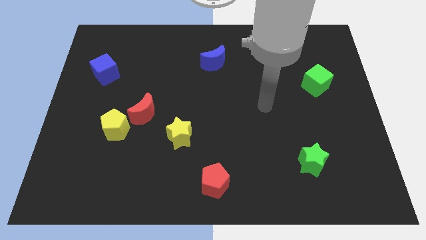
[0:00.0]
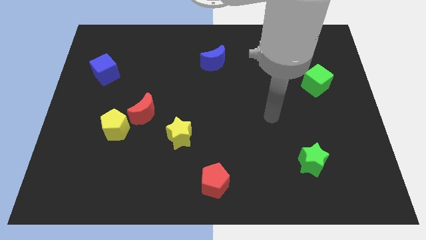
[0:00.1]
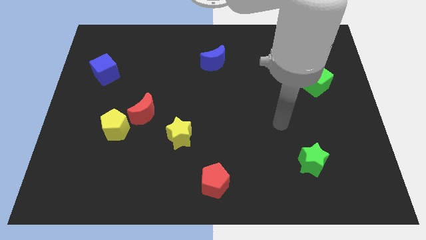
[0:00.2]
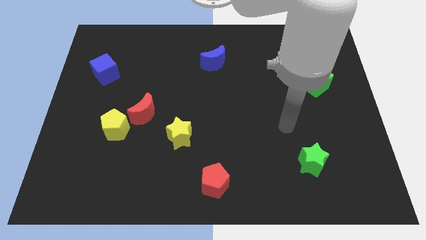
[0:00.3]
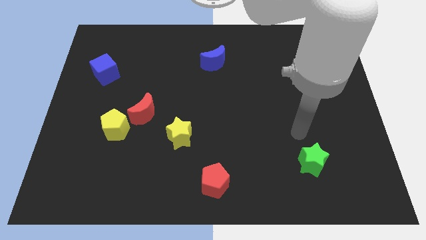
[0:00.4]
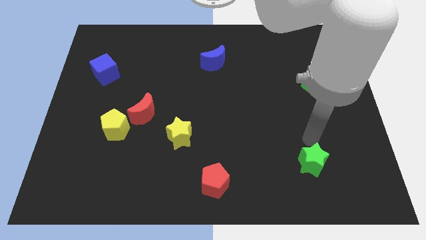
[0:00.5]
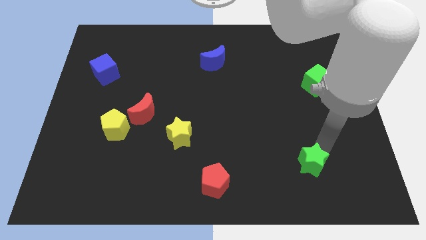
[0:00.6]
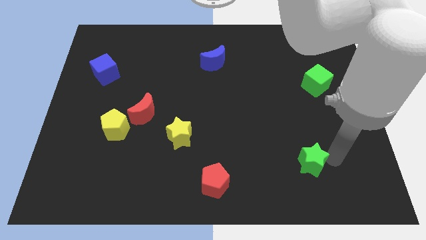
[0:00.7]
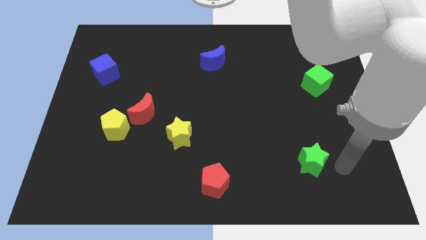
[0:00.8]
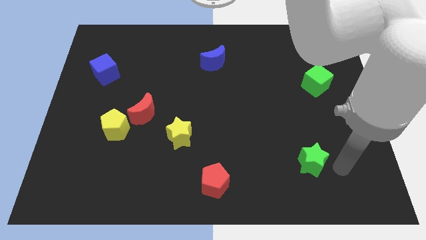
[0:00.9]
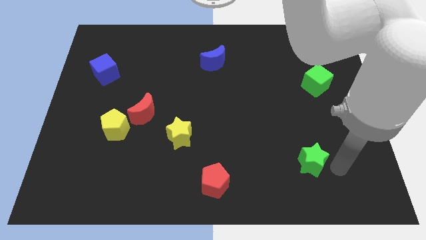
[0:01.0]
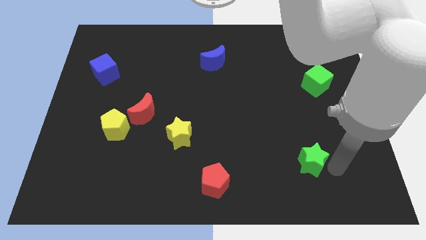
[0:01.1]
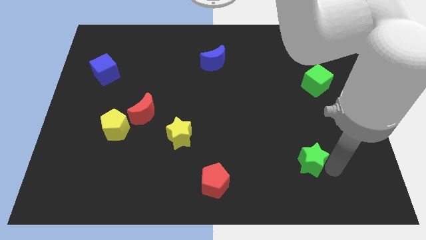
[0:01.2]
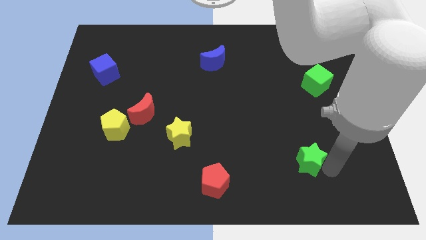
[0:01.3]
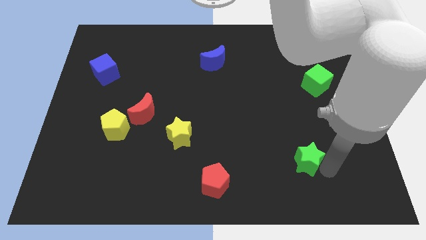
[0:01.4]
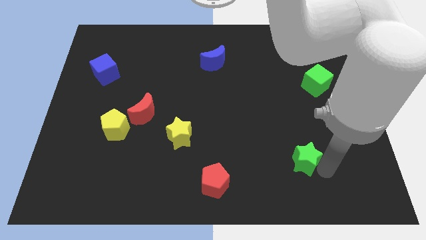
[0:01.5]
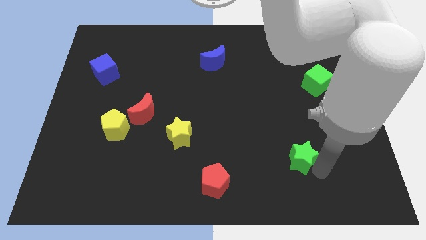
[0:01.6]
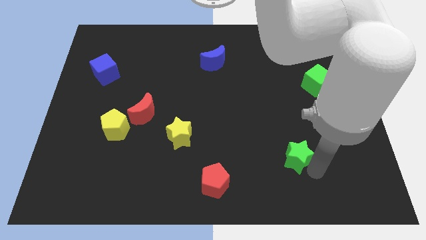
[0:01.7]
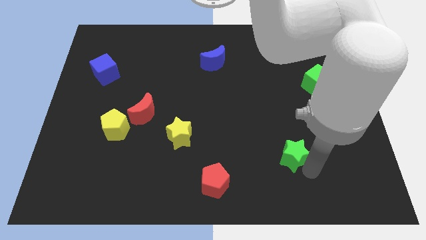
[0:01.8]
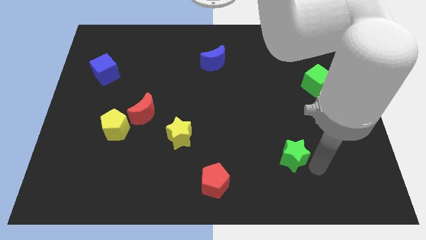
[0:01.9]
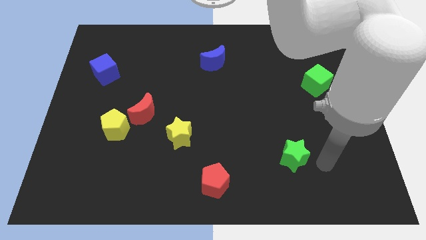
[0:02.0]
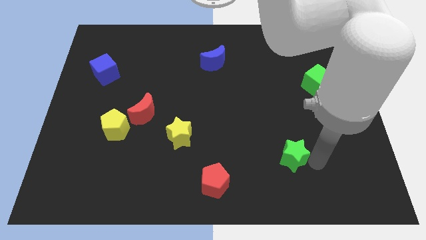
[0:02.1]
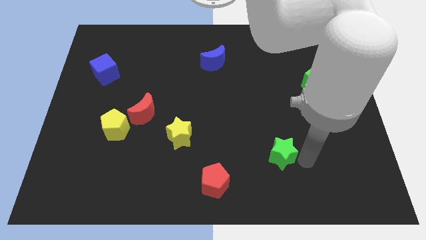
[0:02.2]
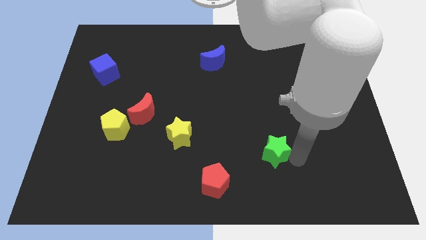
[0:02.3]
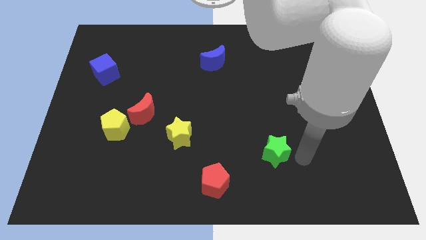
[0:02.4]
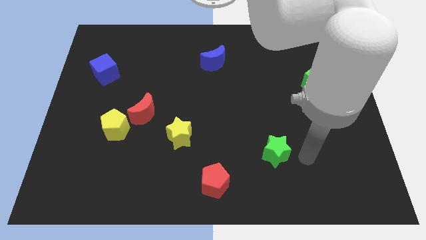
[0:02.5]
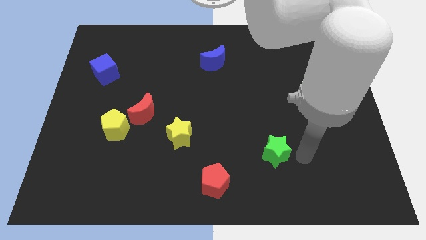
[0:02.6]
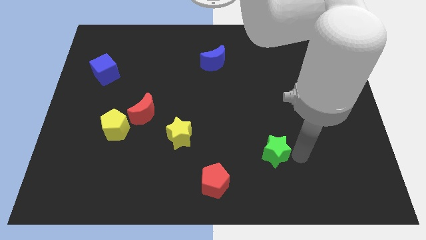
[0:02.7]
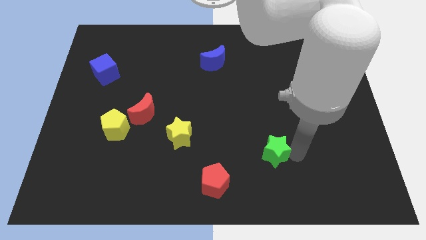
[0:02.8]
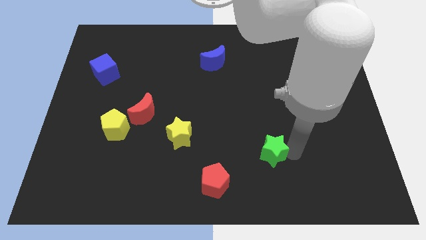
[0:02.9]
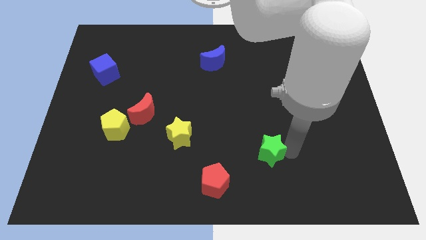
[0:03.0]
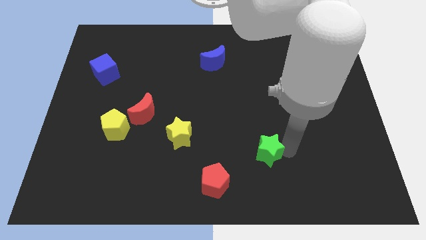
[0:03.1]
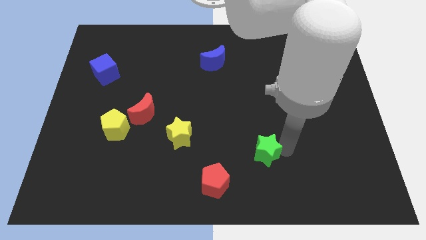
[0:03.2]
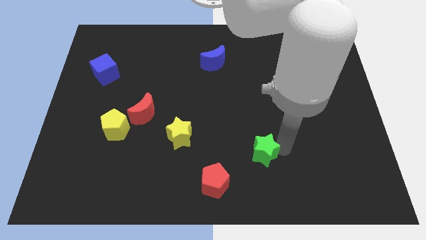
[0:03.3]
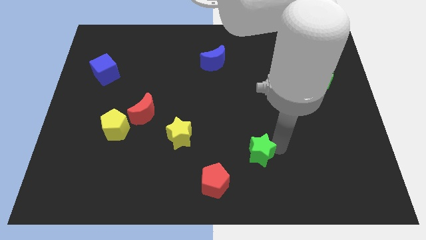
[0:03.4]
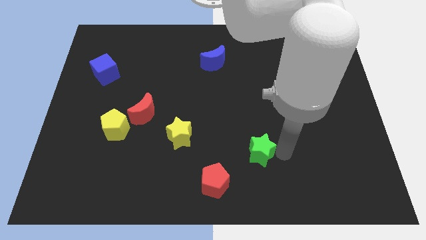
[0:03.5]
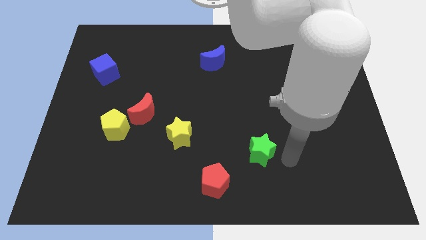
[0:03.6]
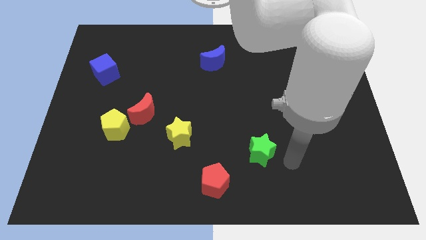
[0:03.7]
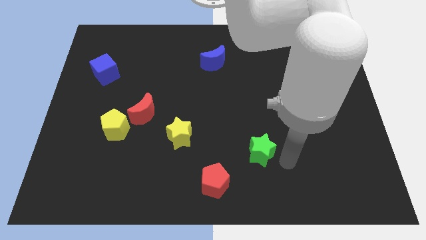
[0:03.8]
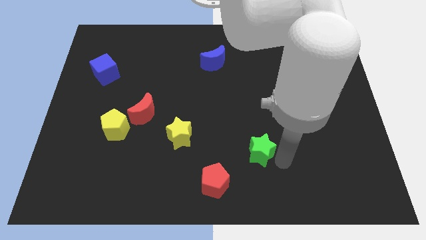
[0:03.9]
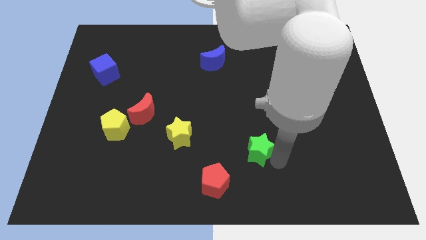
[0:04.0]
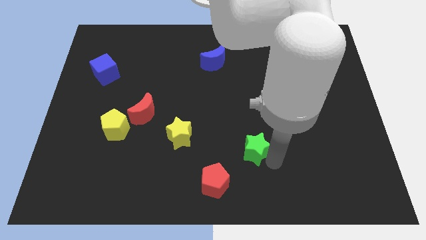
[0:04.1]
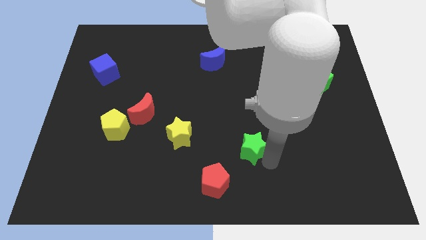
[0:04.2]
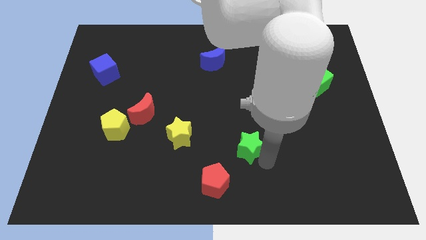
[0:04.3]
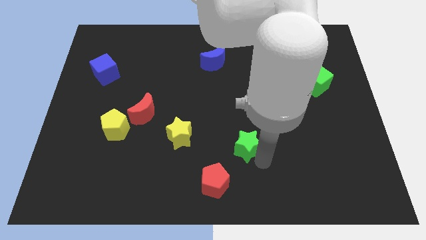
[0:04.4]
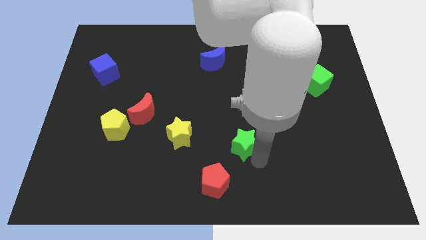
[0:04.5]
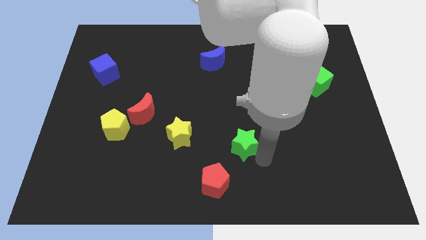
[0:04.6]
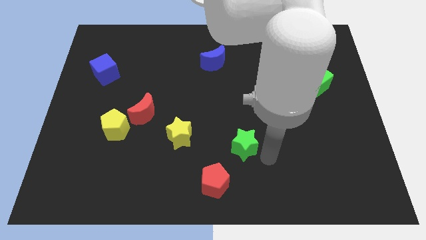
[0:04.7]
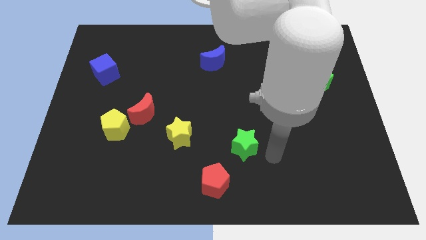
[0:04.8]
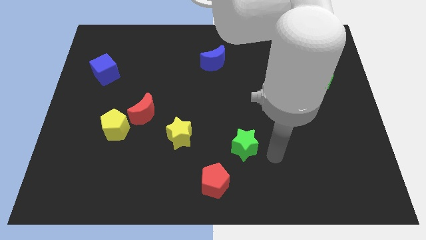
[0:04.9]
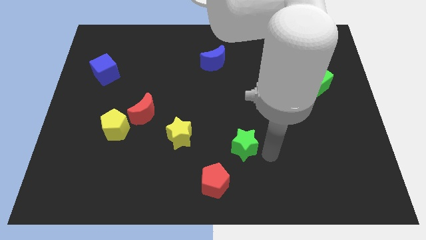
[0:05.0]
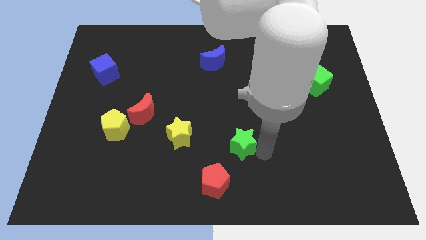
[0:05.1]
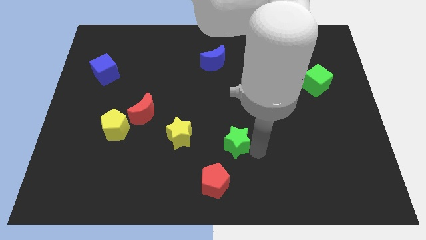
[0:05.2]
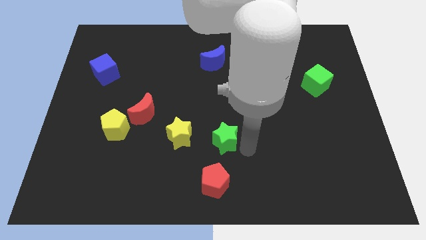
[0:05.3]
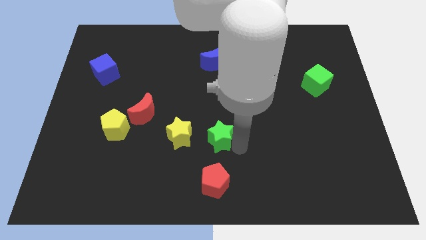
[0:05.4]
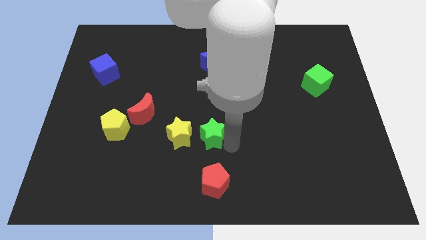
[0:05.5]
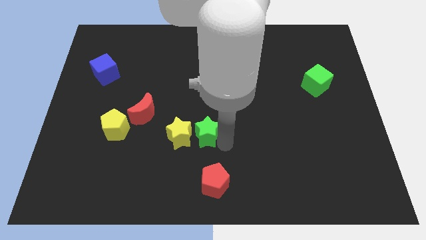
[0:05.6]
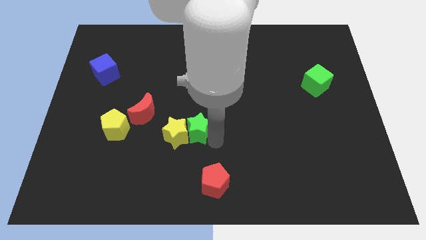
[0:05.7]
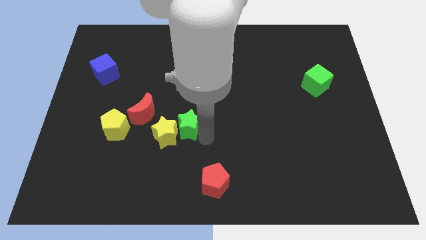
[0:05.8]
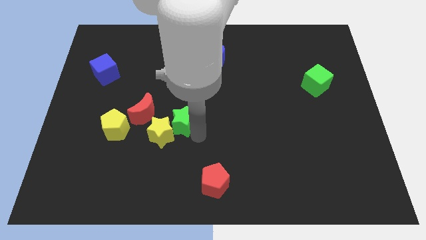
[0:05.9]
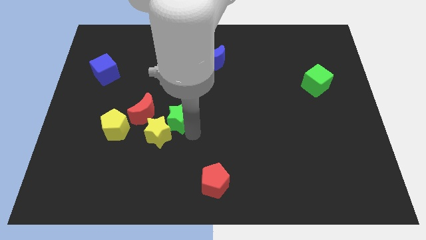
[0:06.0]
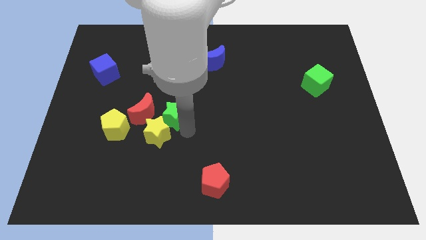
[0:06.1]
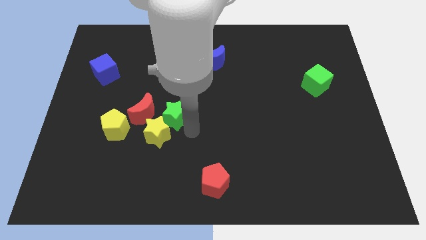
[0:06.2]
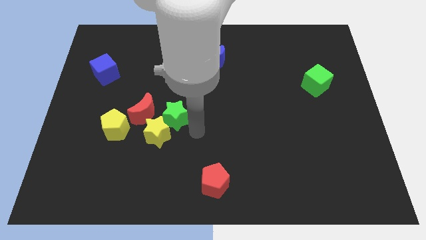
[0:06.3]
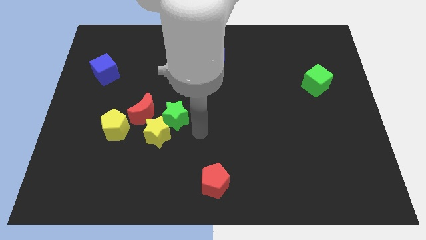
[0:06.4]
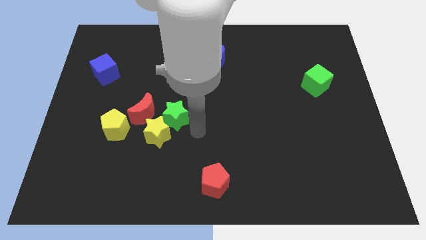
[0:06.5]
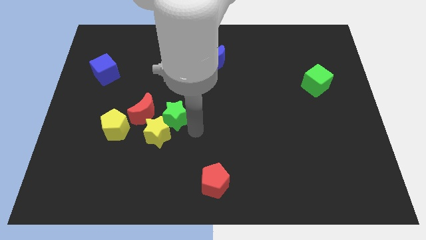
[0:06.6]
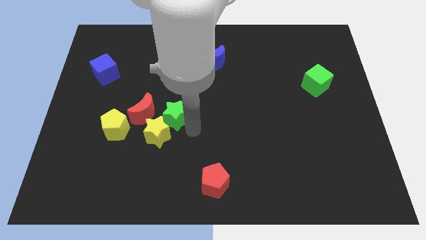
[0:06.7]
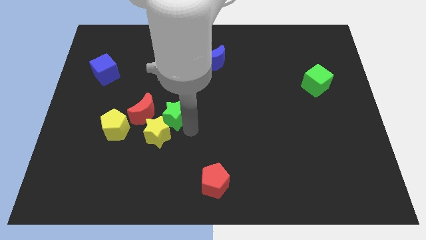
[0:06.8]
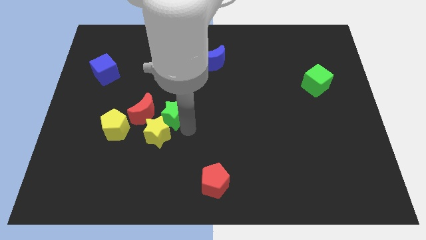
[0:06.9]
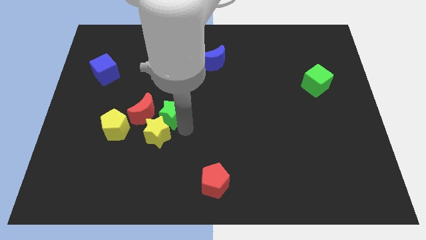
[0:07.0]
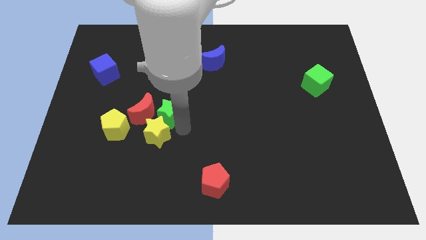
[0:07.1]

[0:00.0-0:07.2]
push the green star towards the red moon

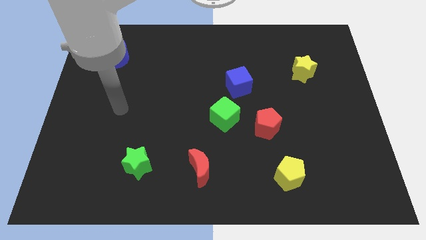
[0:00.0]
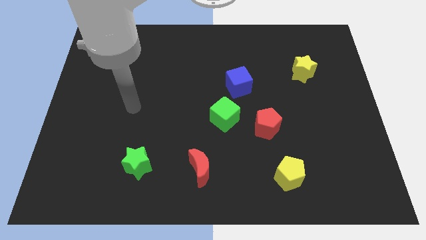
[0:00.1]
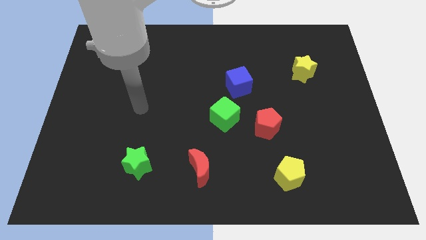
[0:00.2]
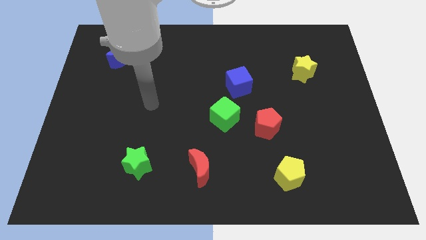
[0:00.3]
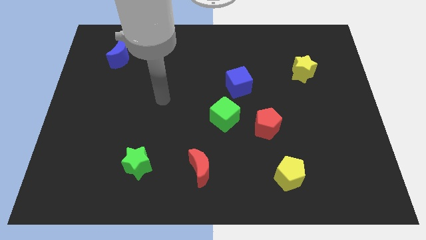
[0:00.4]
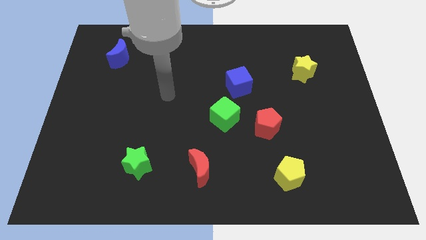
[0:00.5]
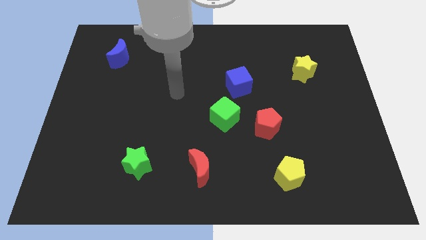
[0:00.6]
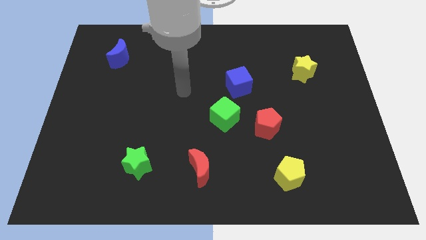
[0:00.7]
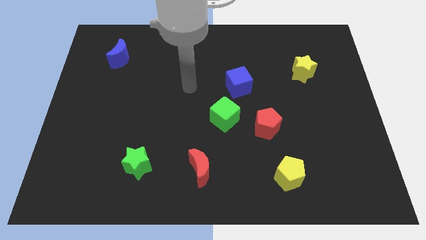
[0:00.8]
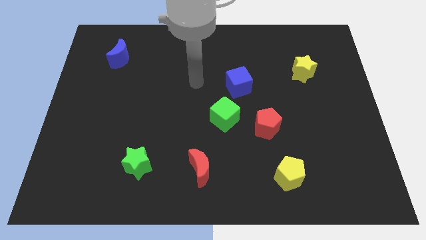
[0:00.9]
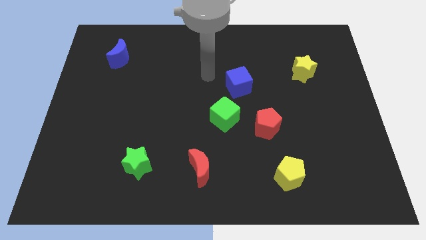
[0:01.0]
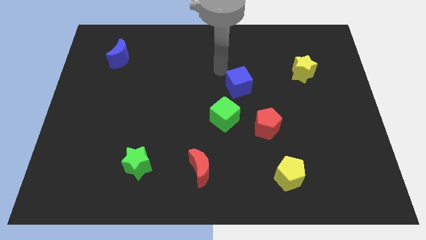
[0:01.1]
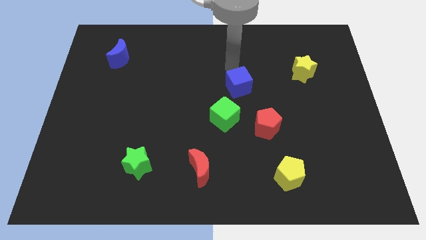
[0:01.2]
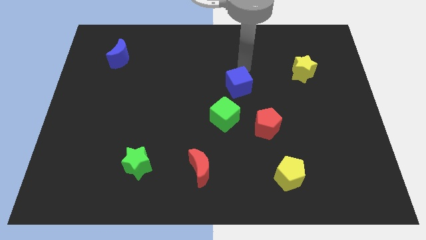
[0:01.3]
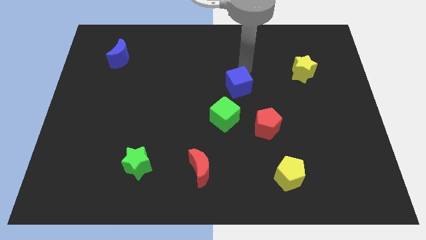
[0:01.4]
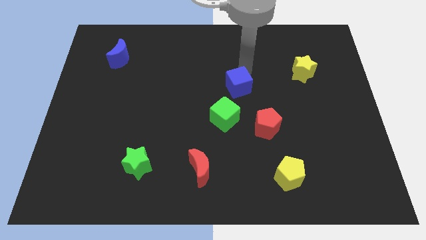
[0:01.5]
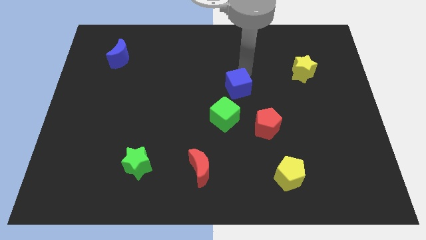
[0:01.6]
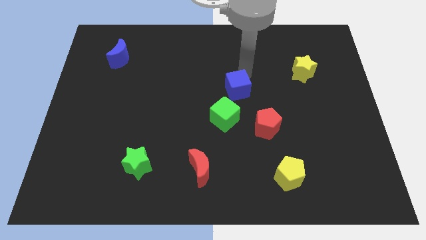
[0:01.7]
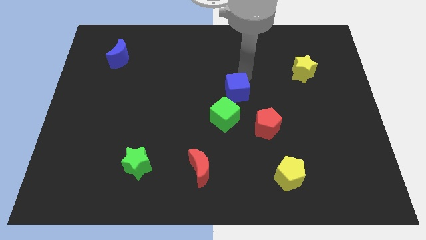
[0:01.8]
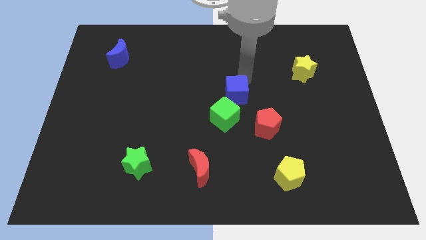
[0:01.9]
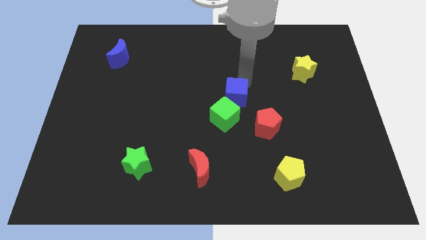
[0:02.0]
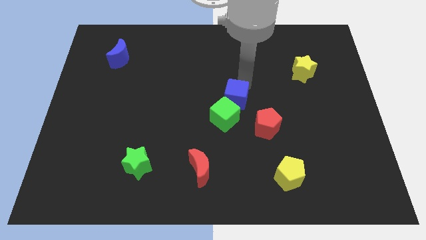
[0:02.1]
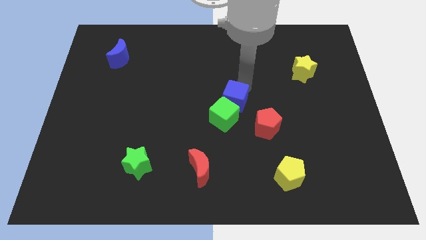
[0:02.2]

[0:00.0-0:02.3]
put the blue cube towards the green cube
